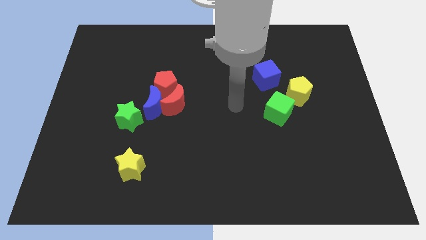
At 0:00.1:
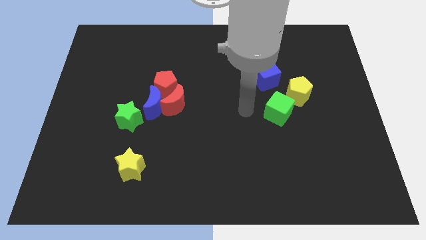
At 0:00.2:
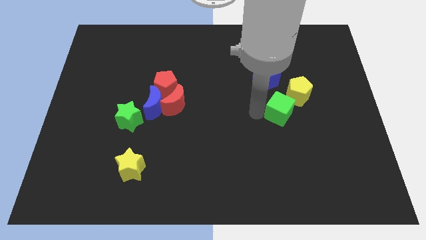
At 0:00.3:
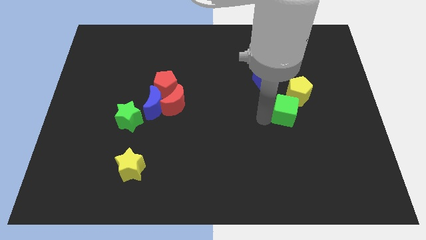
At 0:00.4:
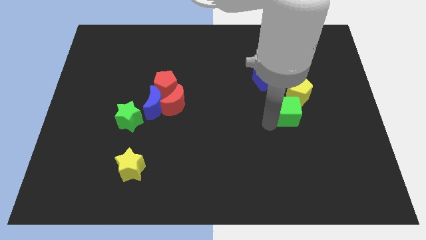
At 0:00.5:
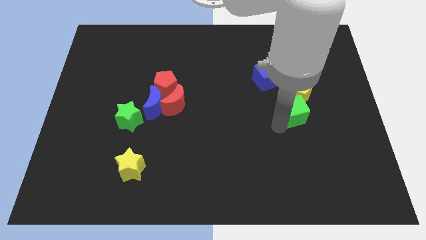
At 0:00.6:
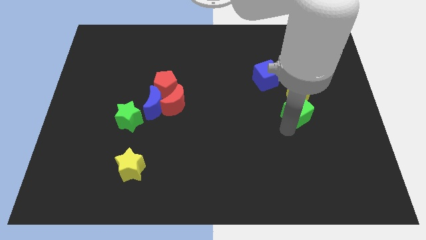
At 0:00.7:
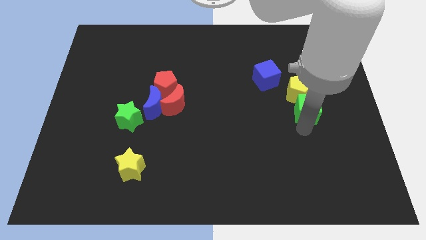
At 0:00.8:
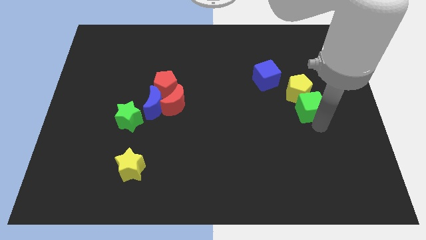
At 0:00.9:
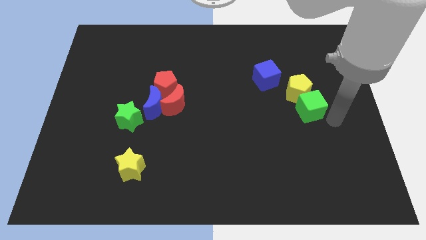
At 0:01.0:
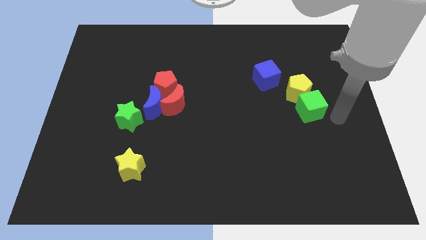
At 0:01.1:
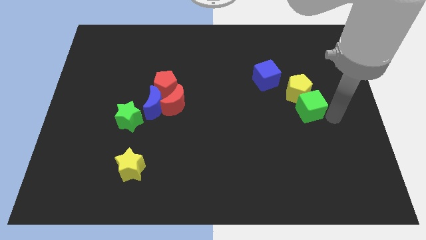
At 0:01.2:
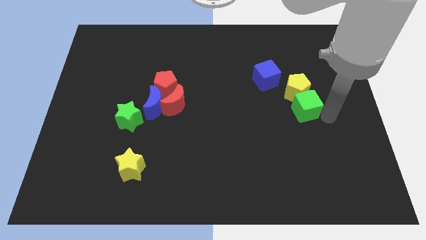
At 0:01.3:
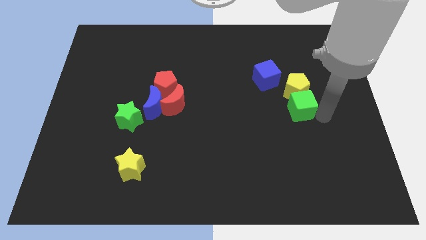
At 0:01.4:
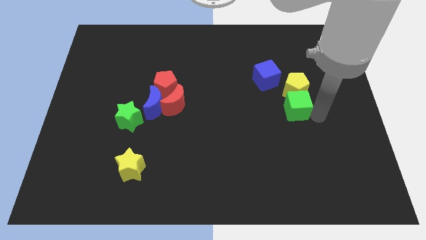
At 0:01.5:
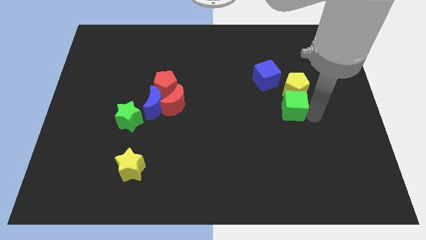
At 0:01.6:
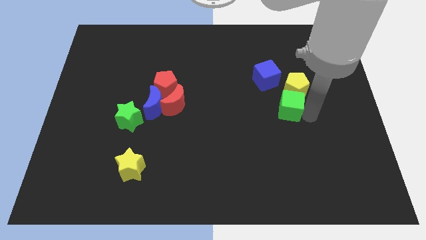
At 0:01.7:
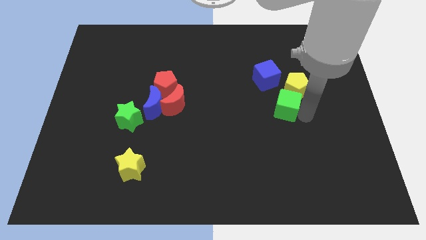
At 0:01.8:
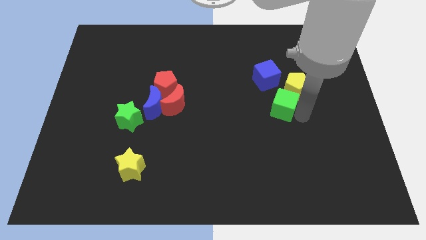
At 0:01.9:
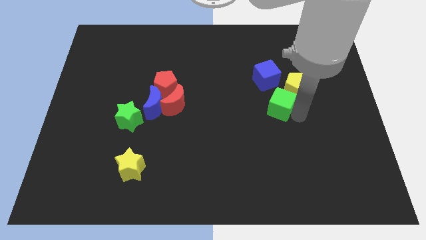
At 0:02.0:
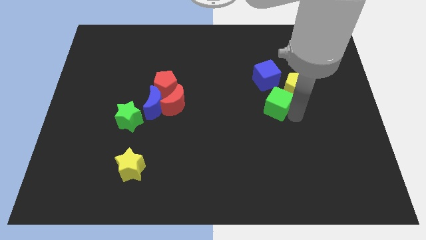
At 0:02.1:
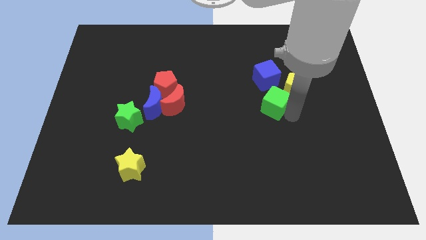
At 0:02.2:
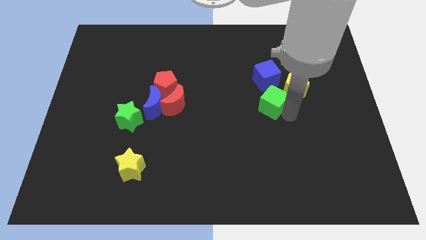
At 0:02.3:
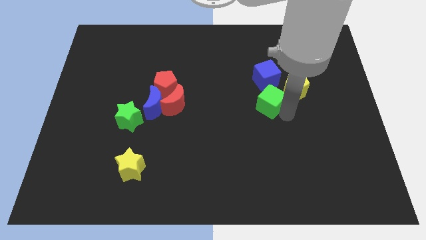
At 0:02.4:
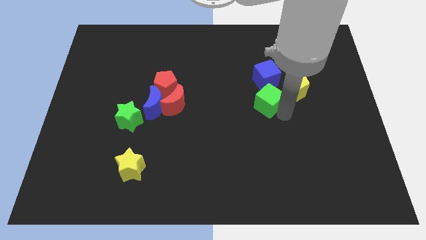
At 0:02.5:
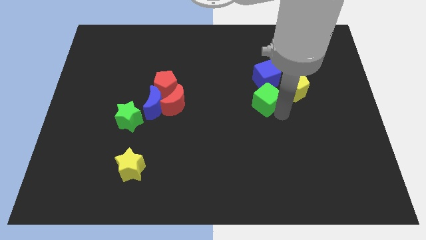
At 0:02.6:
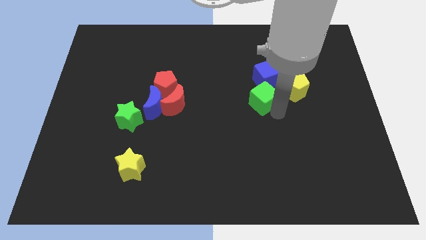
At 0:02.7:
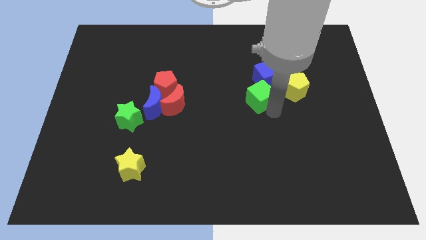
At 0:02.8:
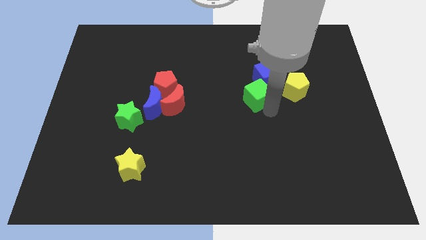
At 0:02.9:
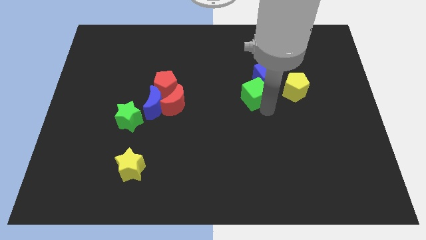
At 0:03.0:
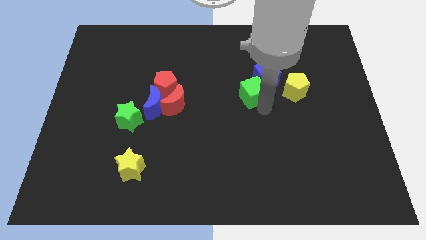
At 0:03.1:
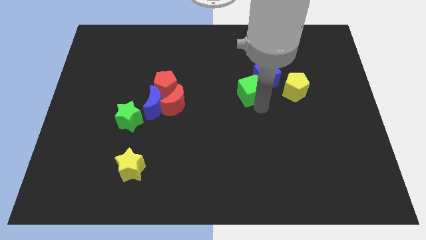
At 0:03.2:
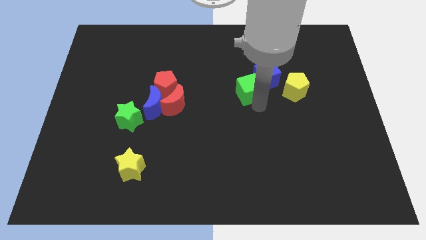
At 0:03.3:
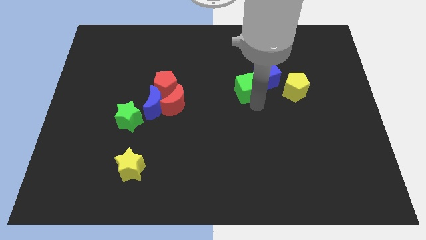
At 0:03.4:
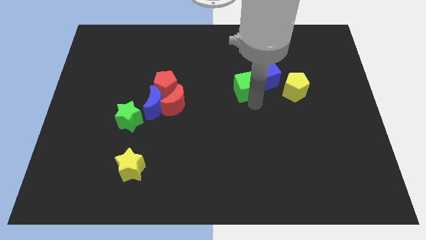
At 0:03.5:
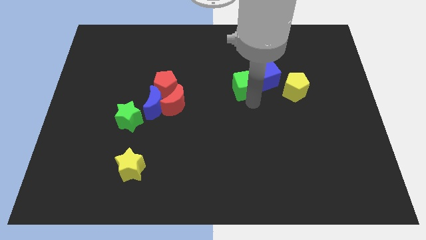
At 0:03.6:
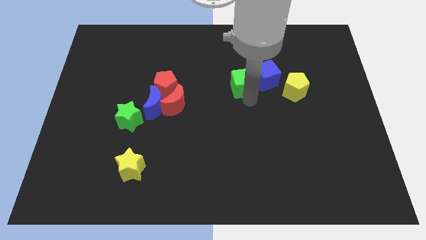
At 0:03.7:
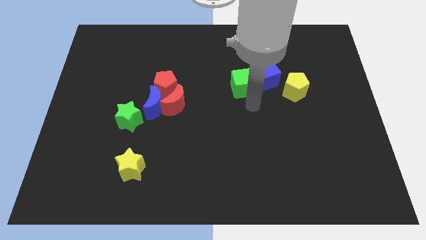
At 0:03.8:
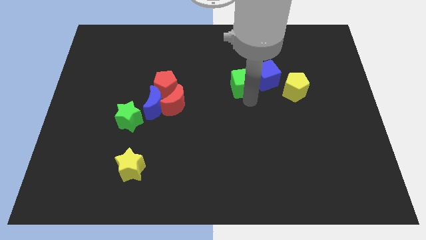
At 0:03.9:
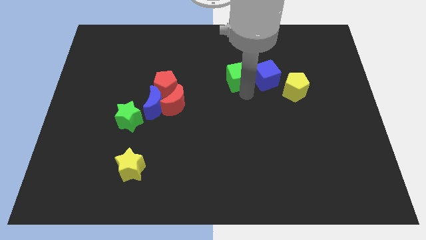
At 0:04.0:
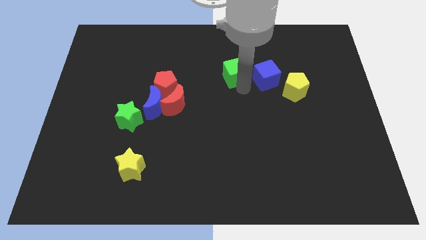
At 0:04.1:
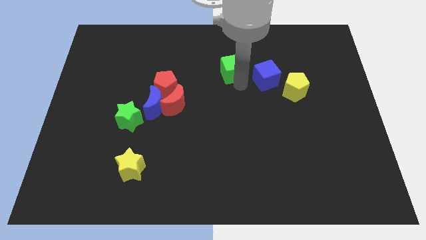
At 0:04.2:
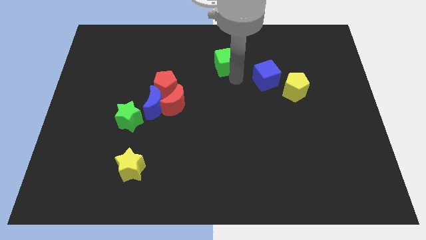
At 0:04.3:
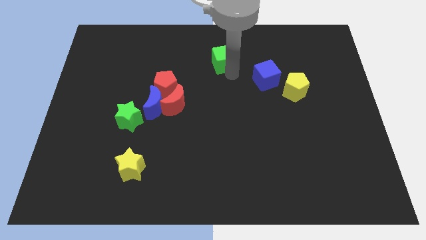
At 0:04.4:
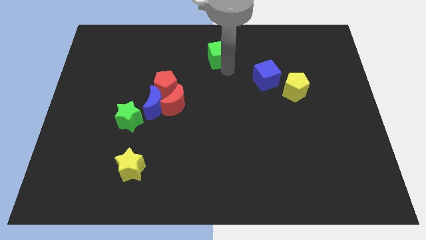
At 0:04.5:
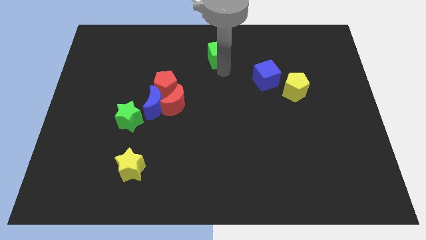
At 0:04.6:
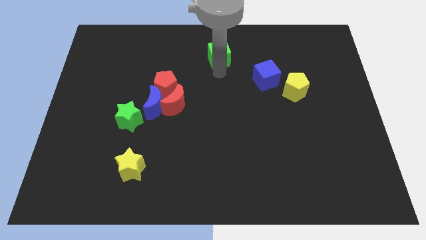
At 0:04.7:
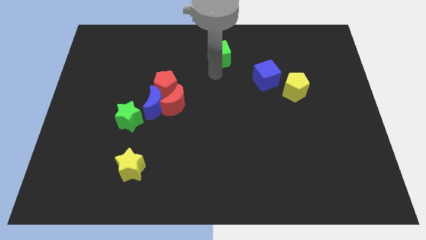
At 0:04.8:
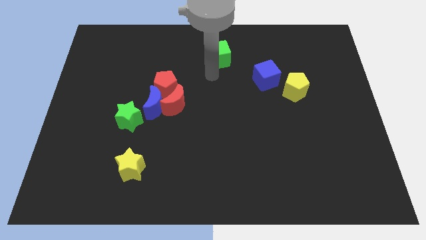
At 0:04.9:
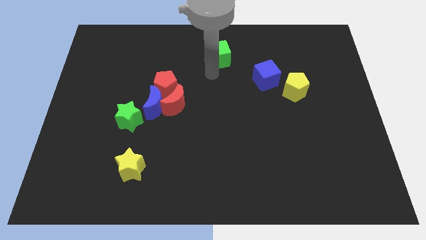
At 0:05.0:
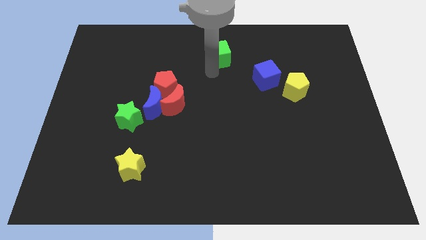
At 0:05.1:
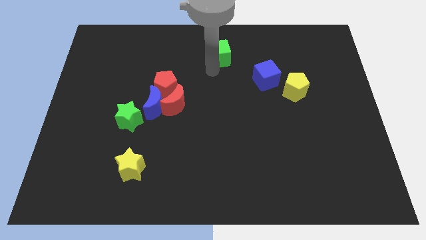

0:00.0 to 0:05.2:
push the green cube to the top

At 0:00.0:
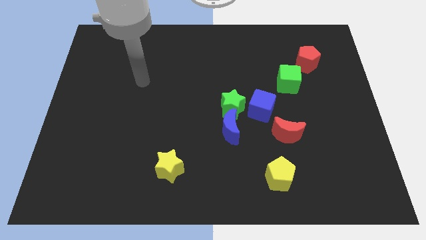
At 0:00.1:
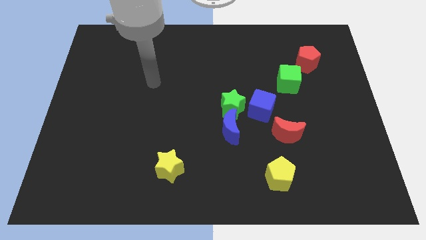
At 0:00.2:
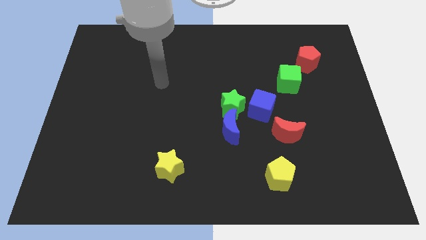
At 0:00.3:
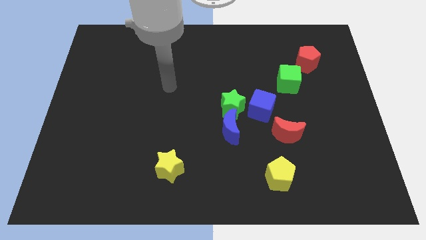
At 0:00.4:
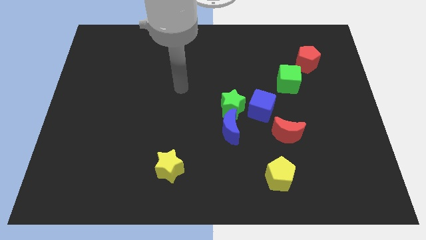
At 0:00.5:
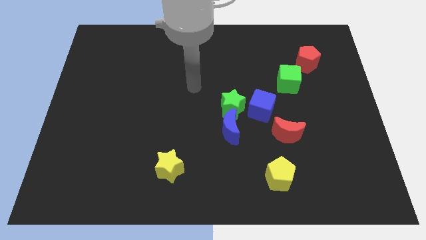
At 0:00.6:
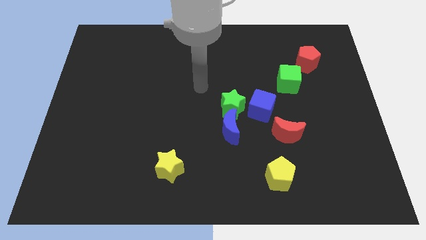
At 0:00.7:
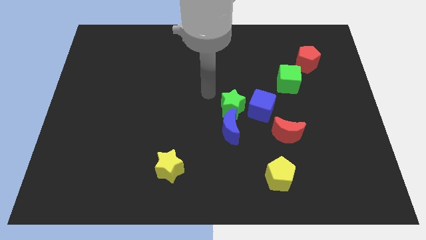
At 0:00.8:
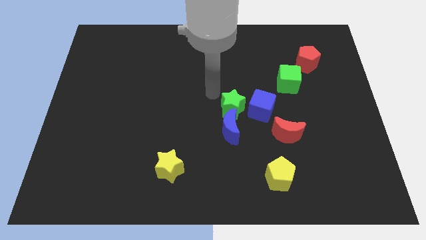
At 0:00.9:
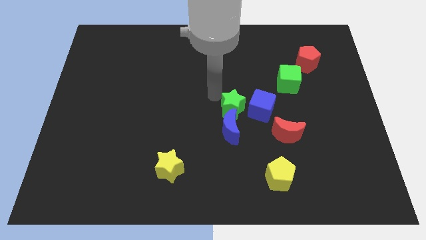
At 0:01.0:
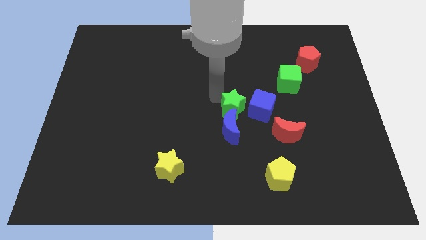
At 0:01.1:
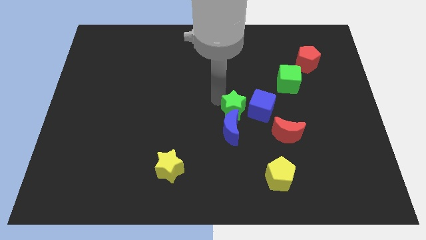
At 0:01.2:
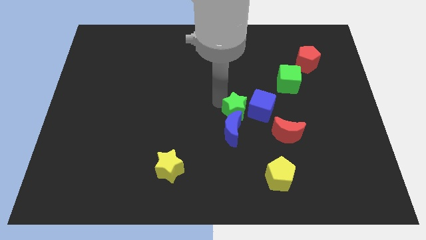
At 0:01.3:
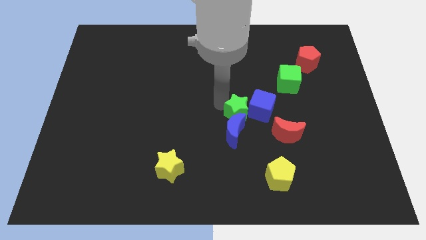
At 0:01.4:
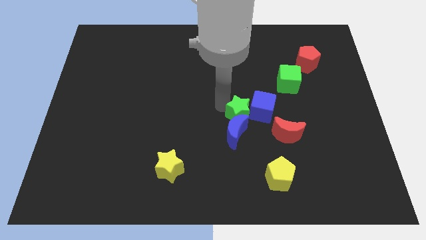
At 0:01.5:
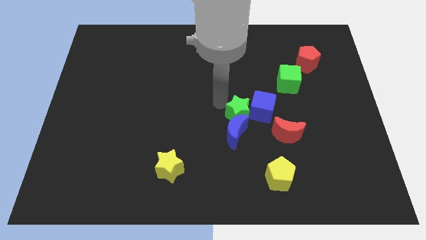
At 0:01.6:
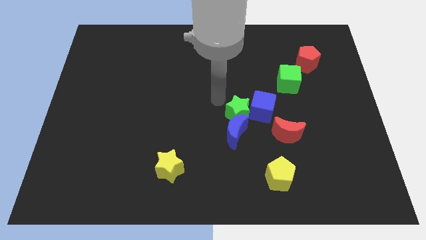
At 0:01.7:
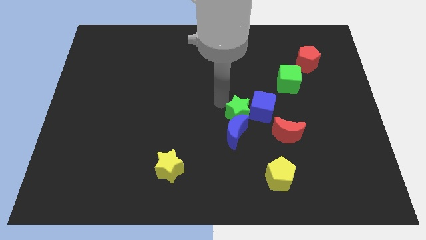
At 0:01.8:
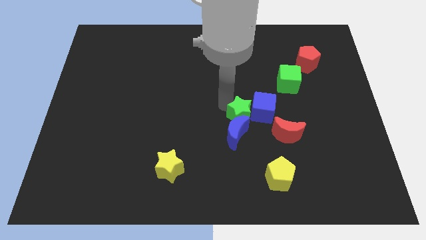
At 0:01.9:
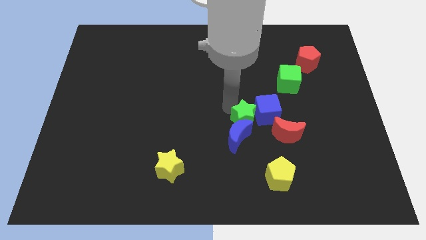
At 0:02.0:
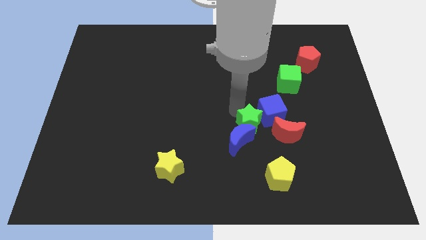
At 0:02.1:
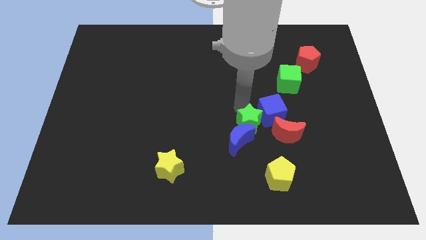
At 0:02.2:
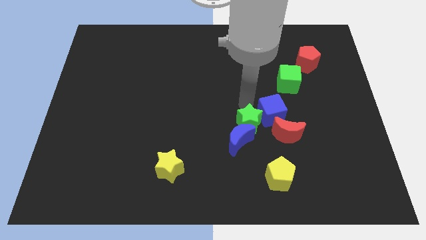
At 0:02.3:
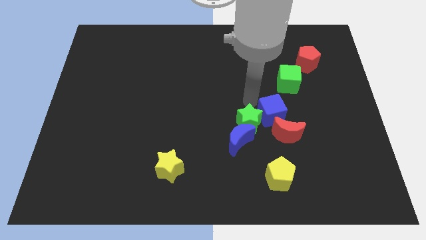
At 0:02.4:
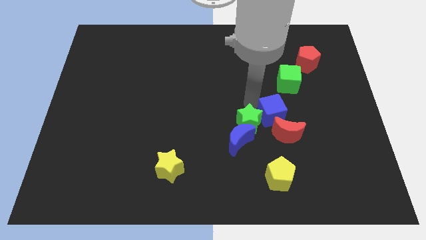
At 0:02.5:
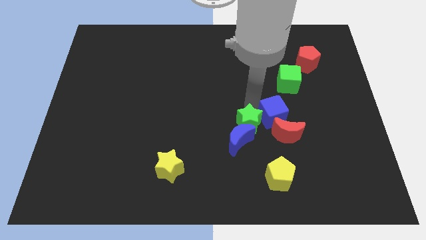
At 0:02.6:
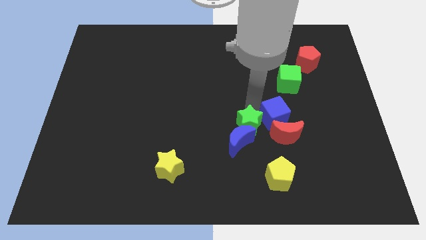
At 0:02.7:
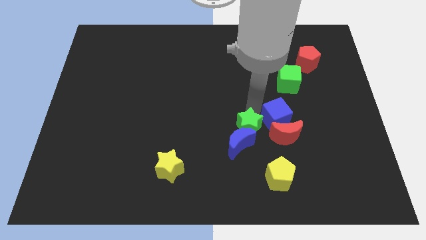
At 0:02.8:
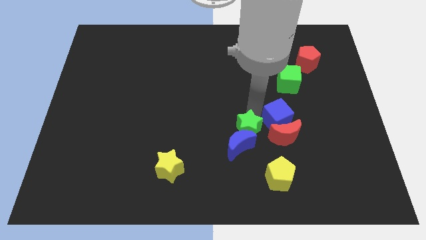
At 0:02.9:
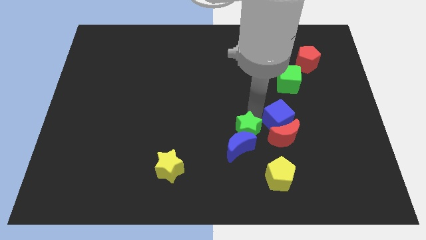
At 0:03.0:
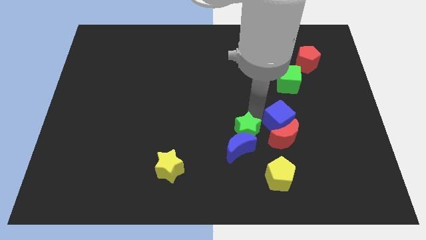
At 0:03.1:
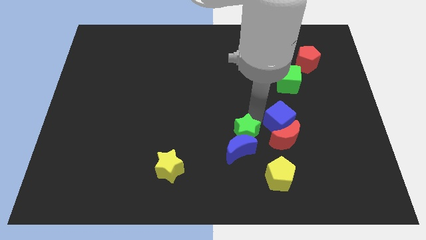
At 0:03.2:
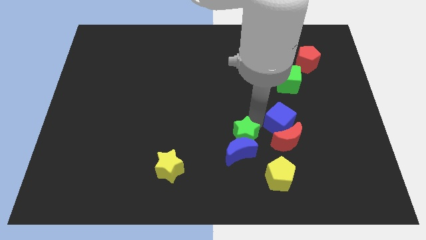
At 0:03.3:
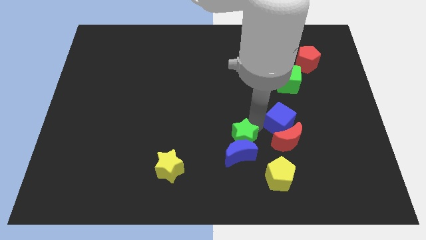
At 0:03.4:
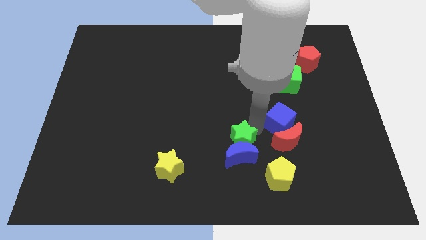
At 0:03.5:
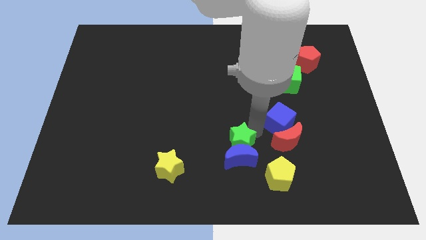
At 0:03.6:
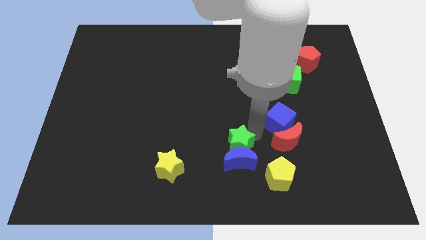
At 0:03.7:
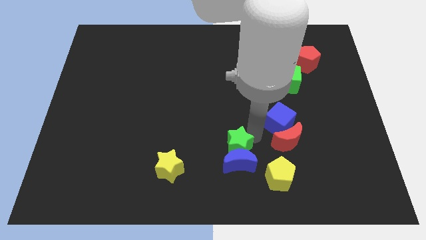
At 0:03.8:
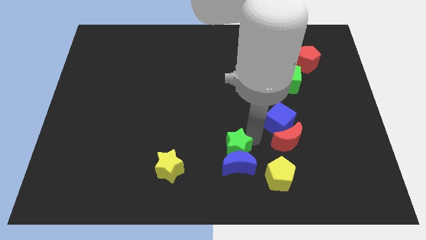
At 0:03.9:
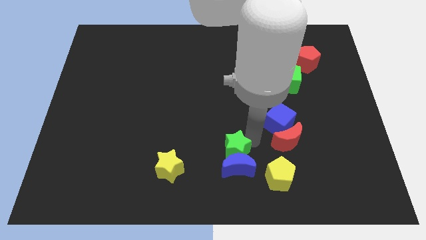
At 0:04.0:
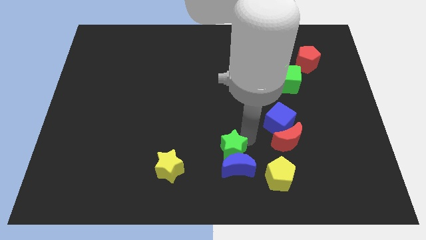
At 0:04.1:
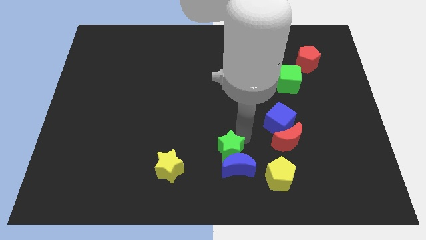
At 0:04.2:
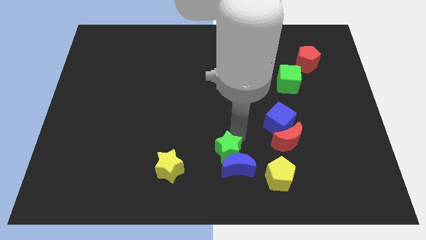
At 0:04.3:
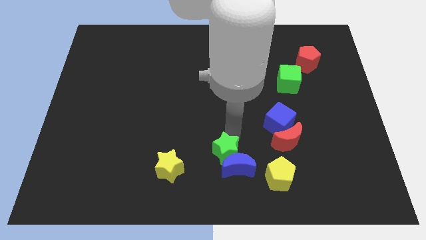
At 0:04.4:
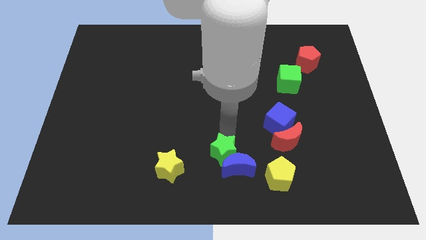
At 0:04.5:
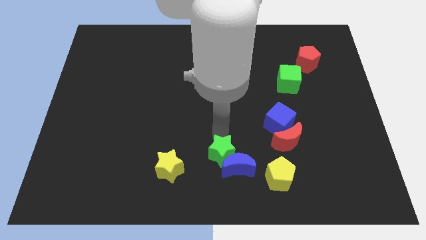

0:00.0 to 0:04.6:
put the green star to the bottom side
